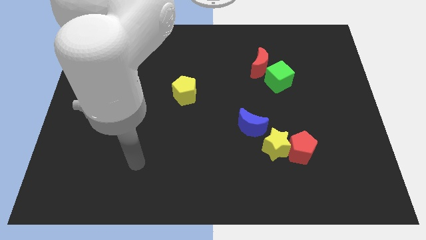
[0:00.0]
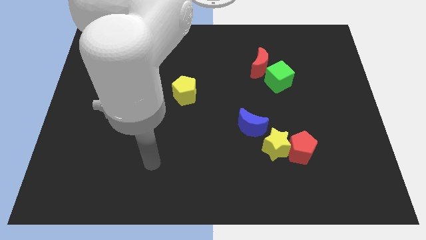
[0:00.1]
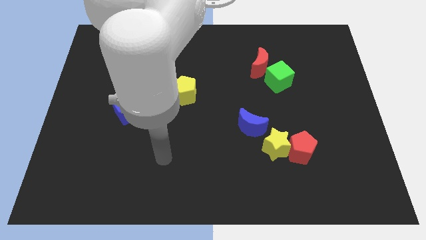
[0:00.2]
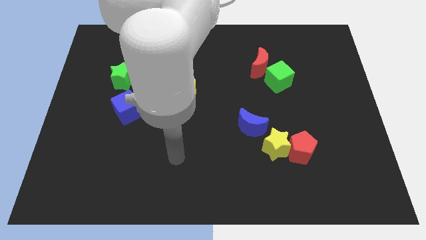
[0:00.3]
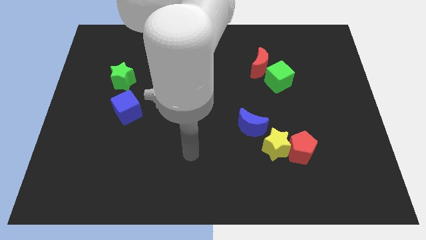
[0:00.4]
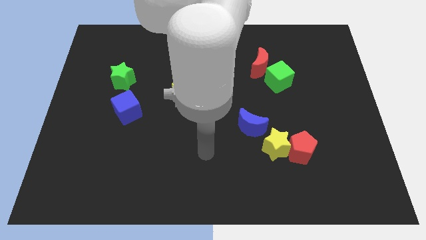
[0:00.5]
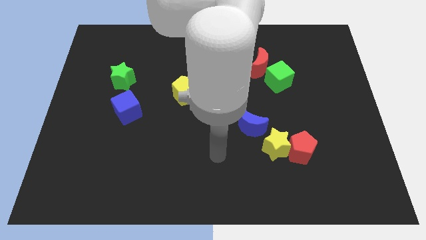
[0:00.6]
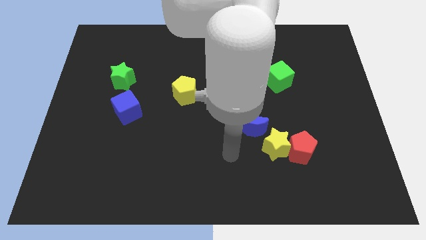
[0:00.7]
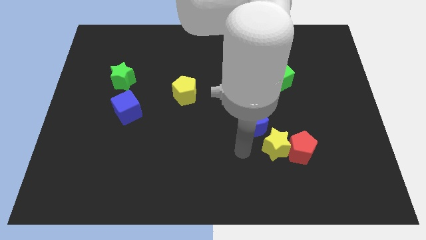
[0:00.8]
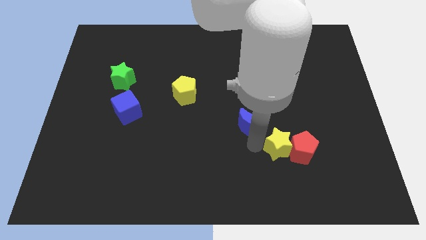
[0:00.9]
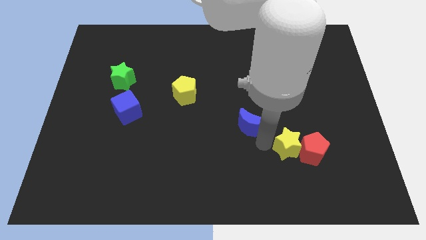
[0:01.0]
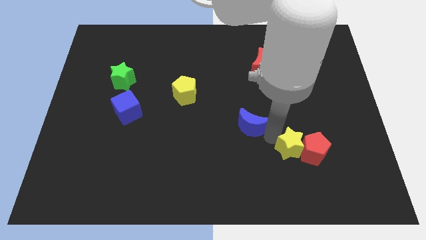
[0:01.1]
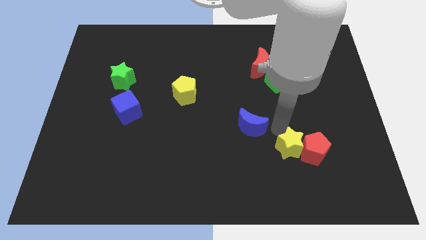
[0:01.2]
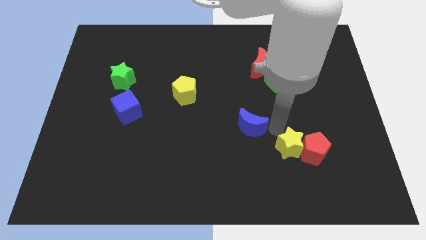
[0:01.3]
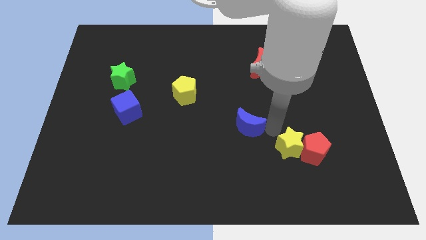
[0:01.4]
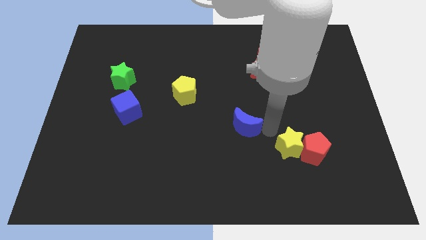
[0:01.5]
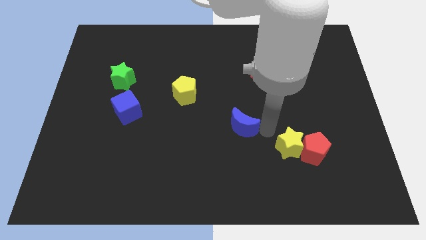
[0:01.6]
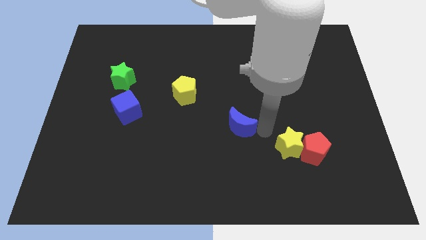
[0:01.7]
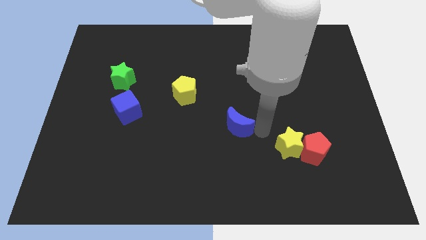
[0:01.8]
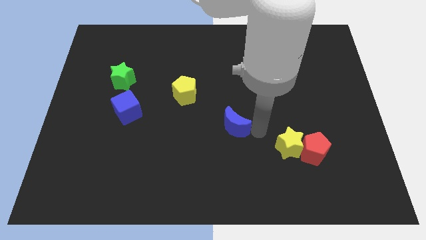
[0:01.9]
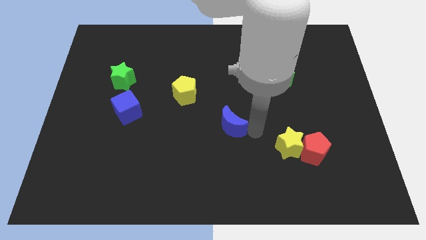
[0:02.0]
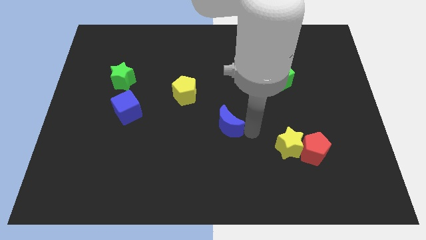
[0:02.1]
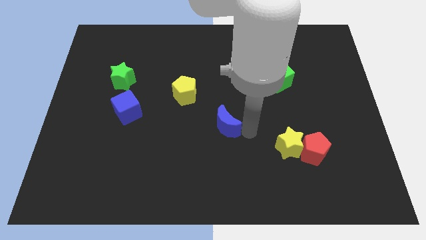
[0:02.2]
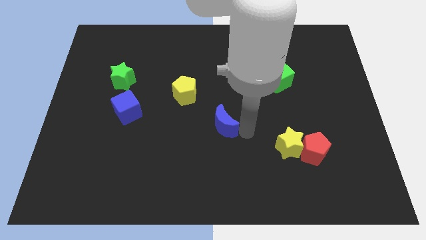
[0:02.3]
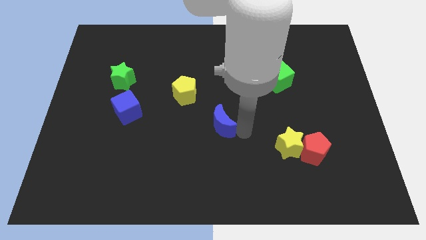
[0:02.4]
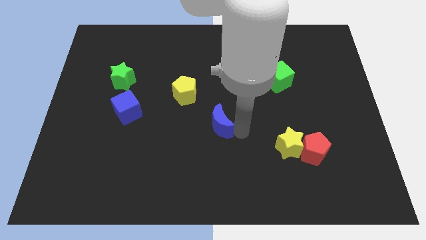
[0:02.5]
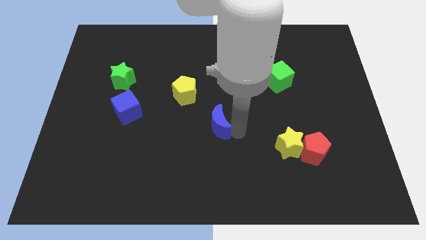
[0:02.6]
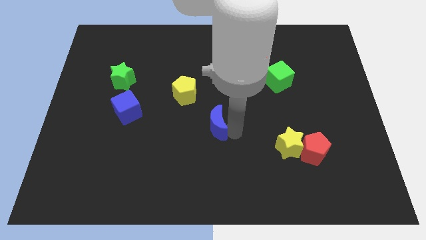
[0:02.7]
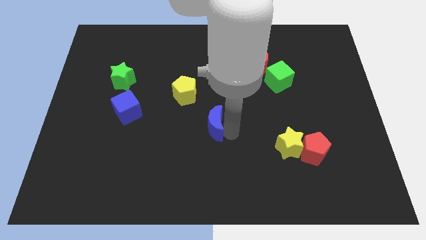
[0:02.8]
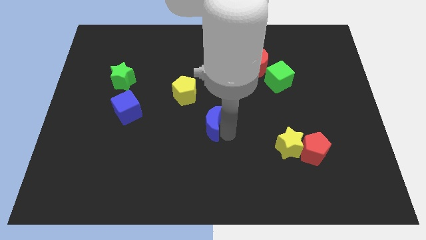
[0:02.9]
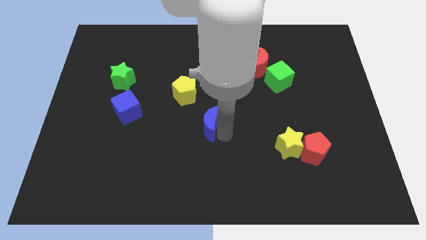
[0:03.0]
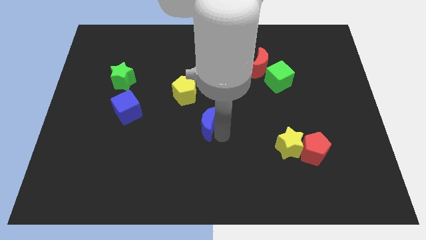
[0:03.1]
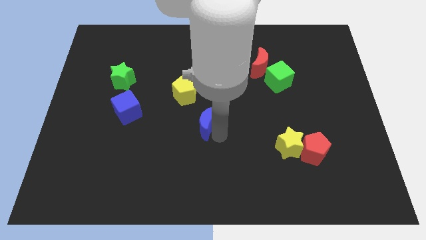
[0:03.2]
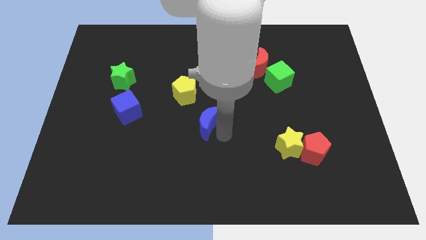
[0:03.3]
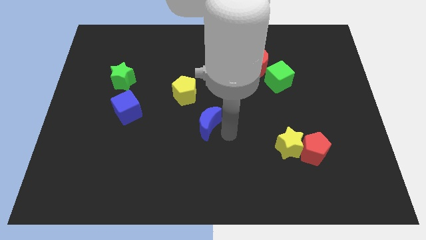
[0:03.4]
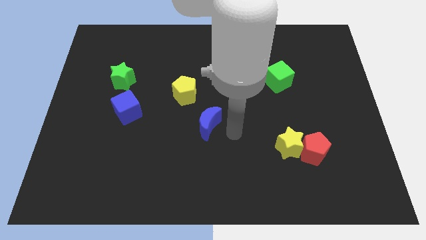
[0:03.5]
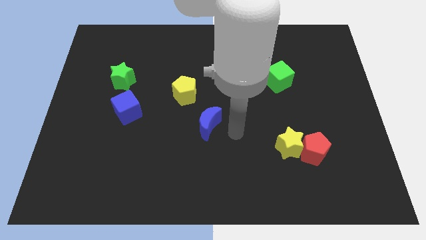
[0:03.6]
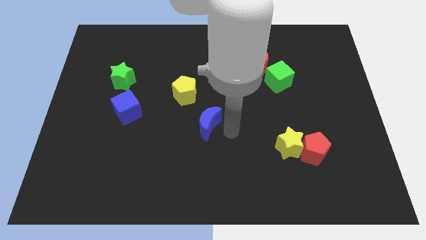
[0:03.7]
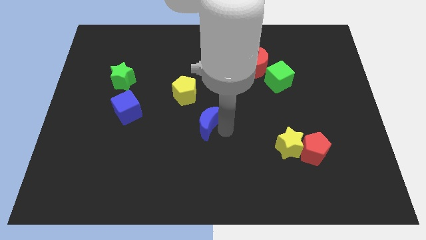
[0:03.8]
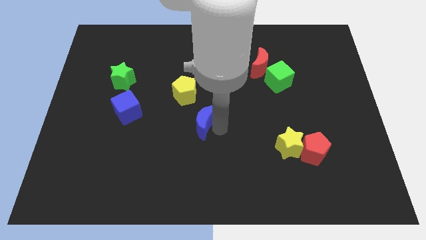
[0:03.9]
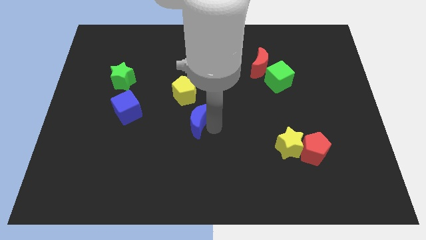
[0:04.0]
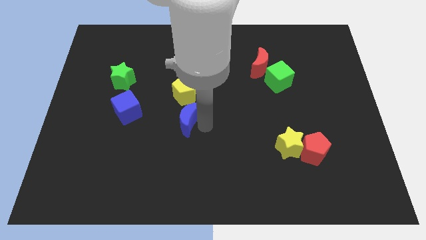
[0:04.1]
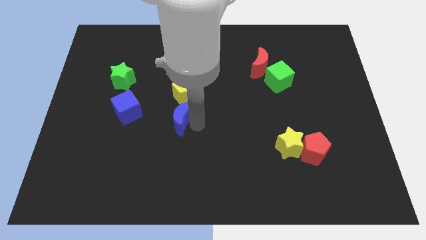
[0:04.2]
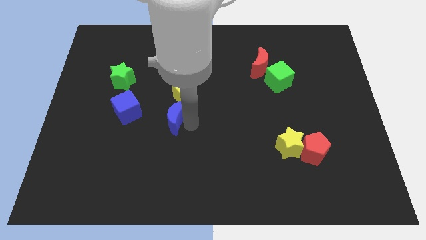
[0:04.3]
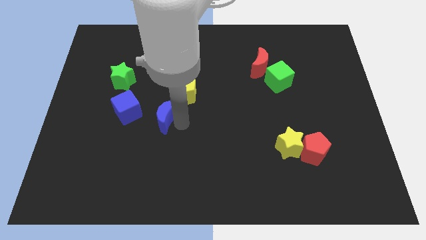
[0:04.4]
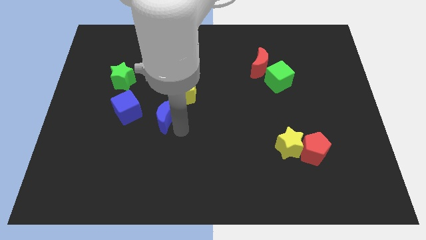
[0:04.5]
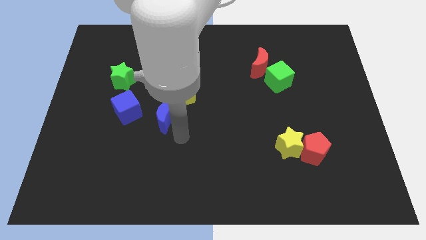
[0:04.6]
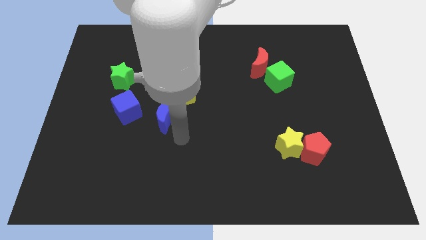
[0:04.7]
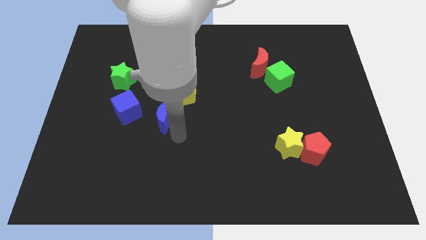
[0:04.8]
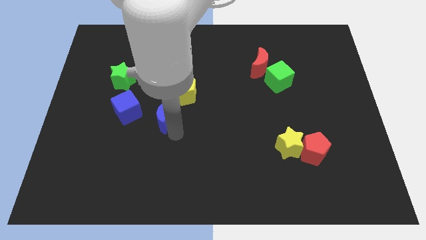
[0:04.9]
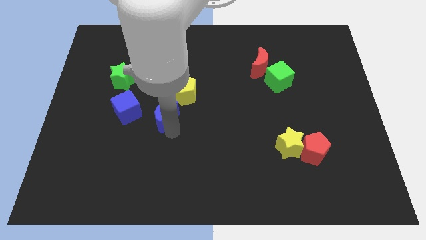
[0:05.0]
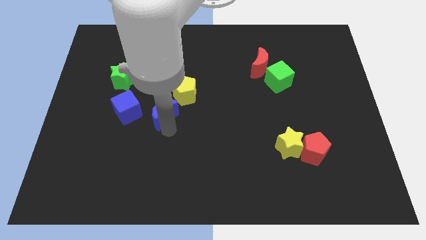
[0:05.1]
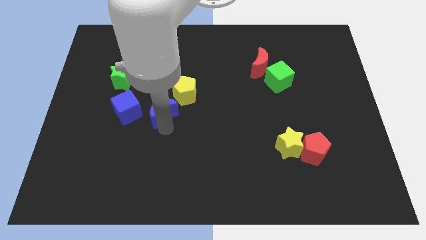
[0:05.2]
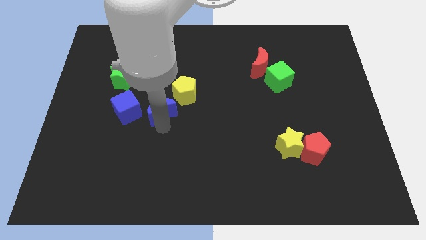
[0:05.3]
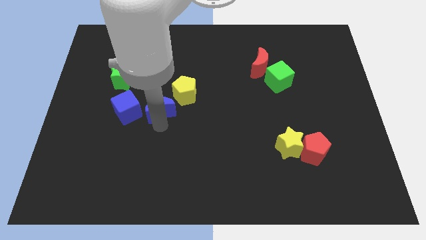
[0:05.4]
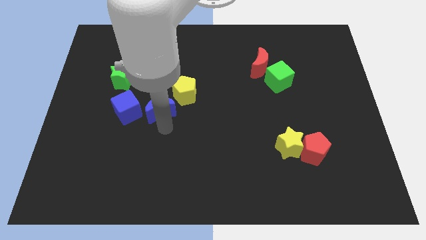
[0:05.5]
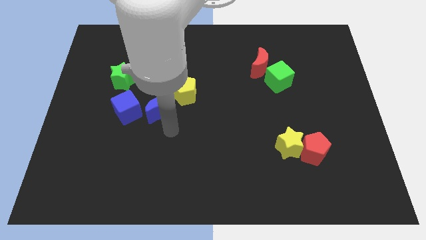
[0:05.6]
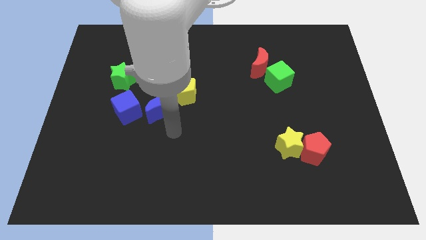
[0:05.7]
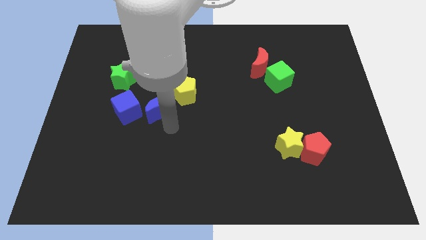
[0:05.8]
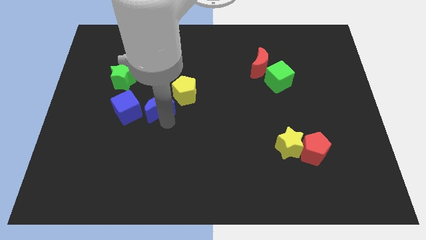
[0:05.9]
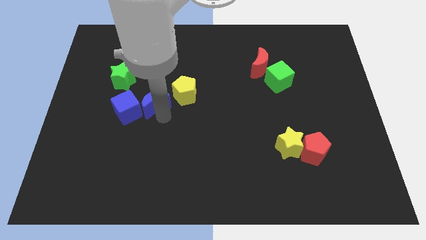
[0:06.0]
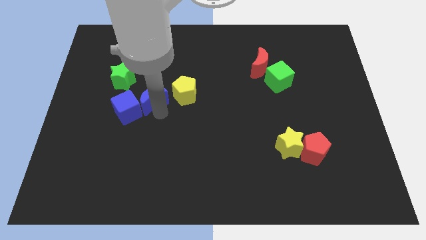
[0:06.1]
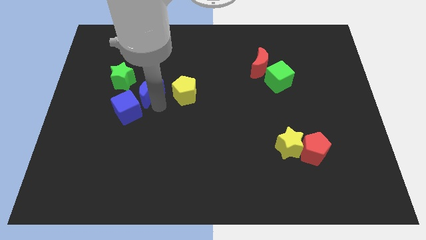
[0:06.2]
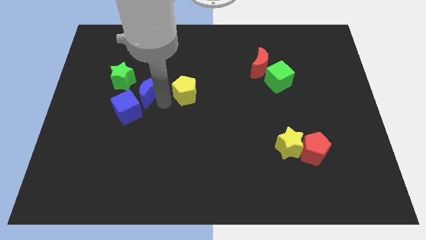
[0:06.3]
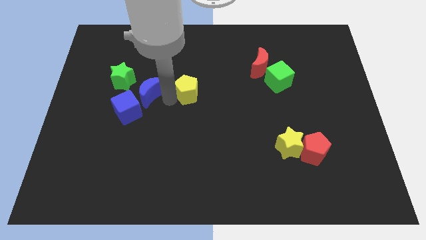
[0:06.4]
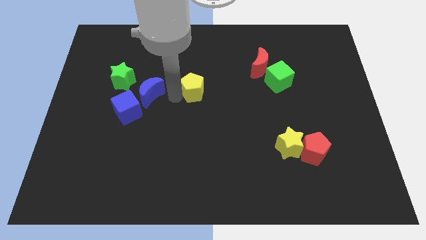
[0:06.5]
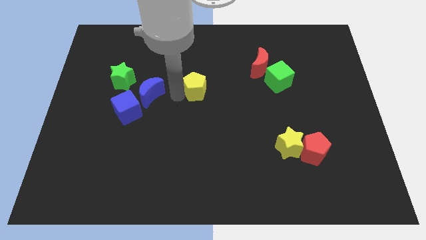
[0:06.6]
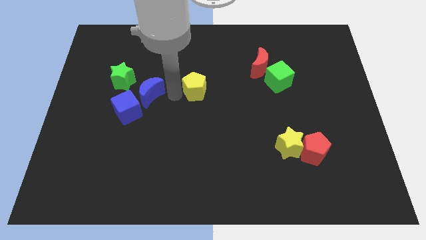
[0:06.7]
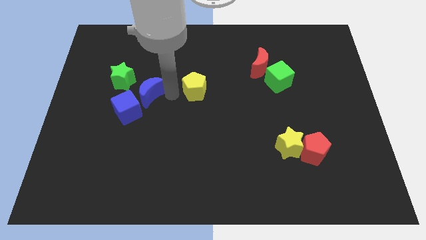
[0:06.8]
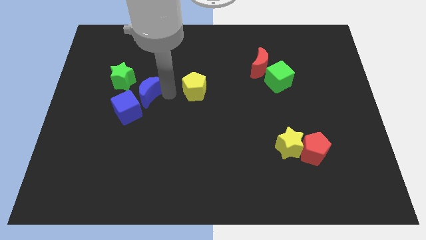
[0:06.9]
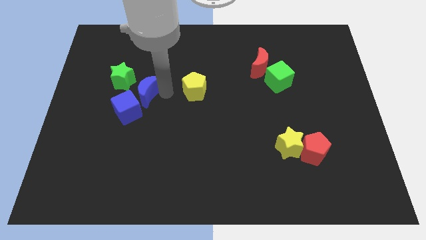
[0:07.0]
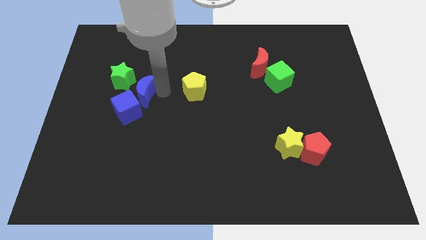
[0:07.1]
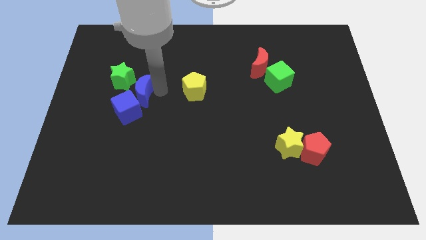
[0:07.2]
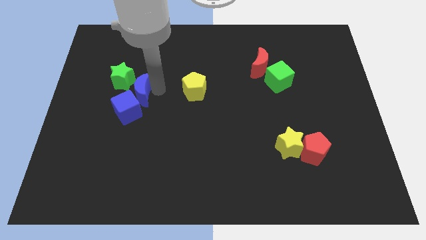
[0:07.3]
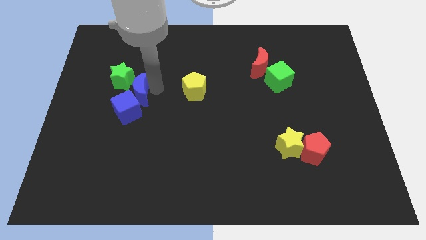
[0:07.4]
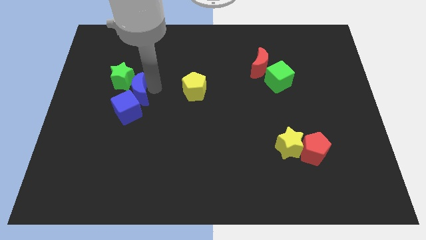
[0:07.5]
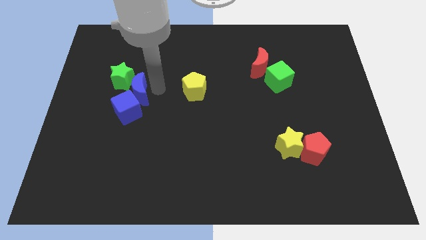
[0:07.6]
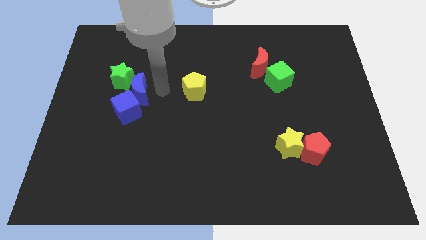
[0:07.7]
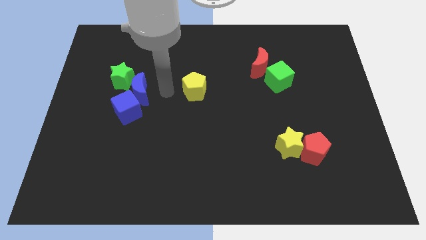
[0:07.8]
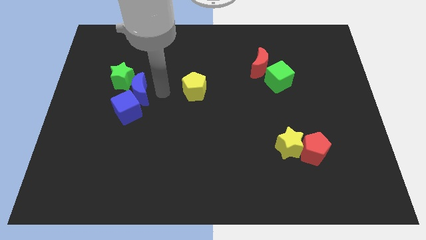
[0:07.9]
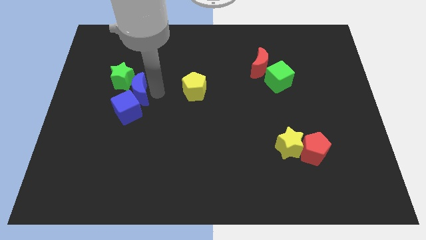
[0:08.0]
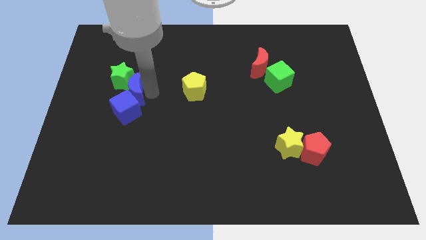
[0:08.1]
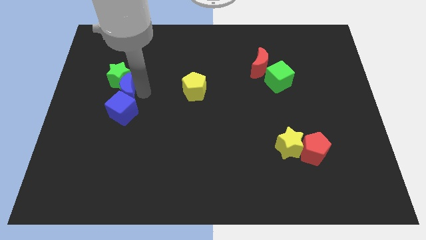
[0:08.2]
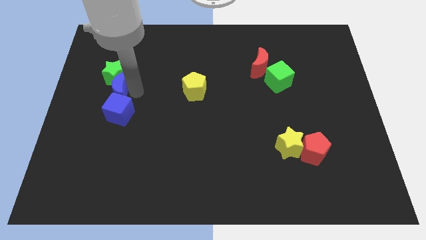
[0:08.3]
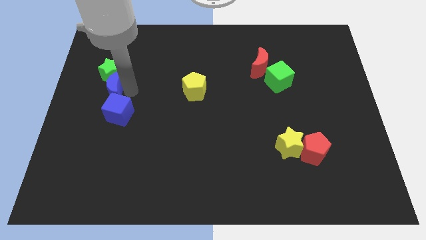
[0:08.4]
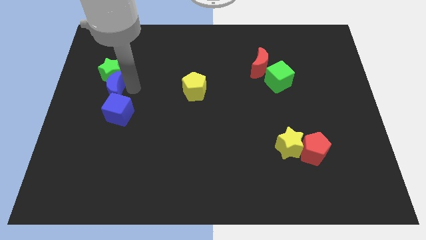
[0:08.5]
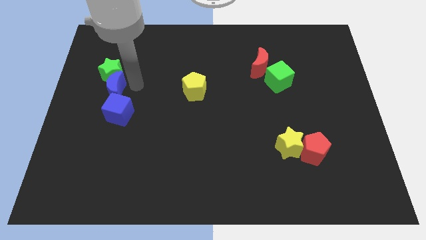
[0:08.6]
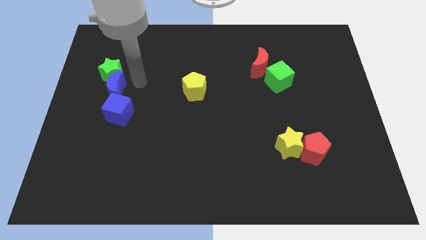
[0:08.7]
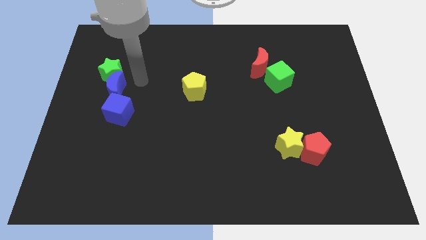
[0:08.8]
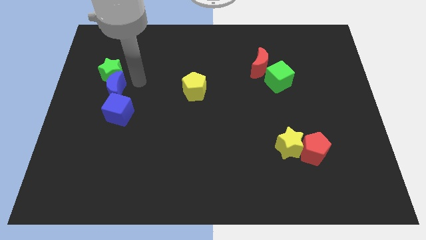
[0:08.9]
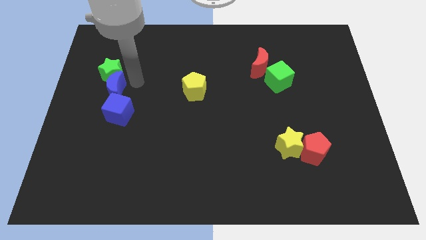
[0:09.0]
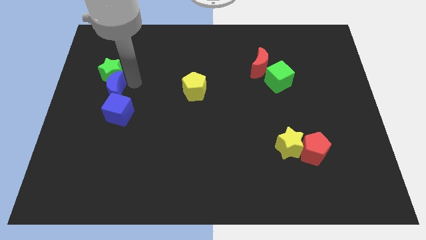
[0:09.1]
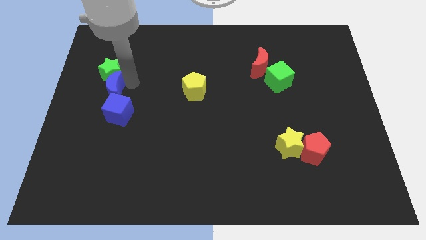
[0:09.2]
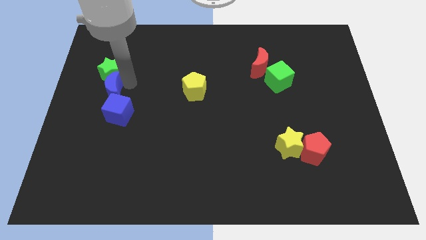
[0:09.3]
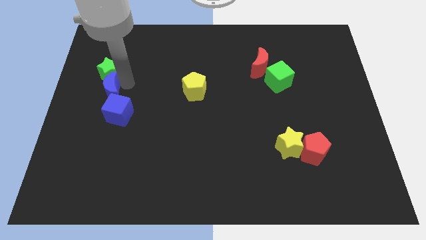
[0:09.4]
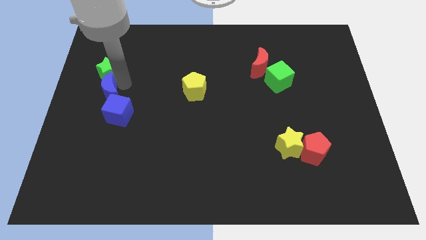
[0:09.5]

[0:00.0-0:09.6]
put the blue moon to the center left
